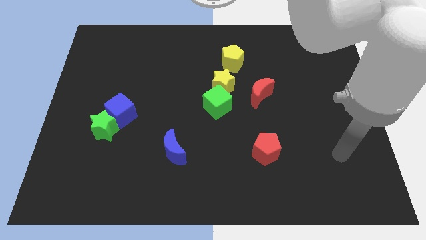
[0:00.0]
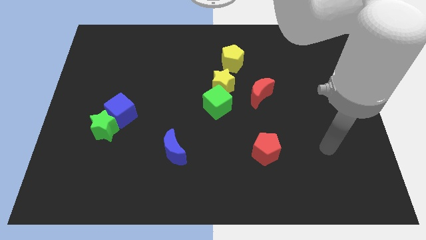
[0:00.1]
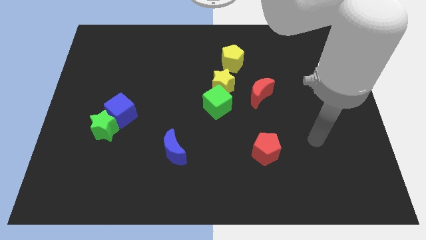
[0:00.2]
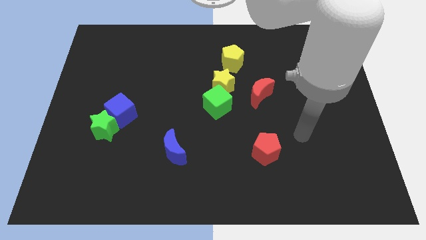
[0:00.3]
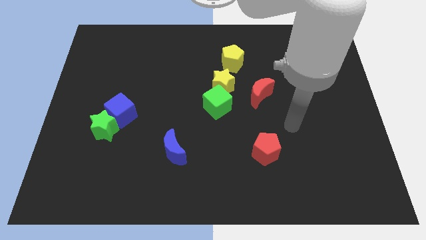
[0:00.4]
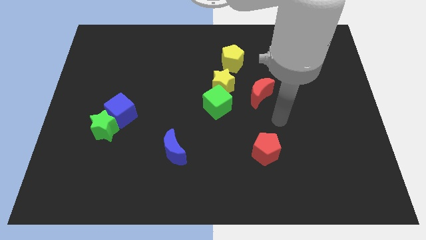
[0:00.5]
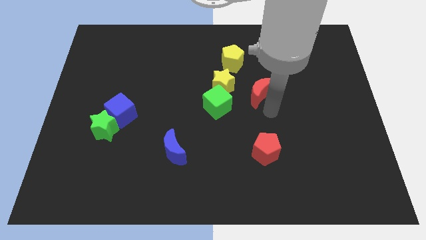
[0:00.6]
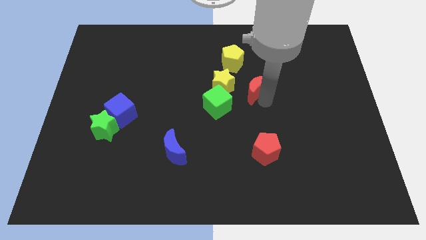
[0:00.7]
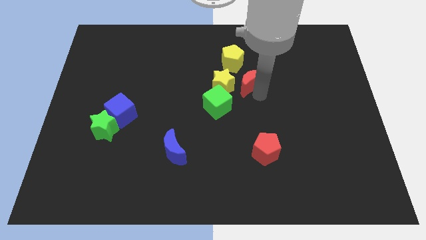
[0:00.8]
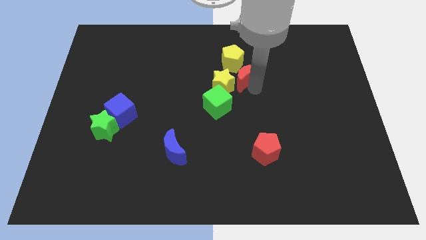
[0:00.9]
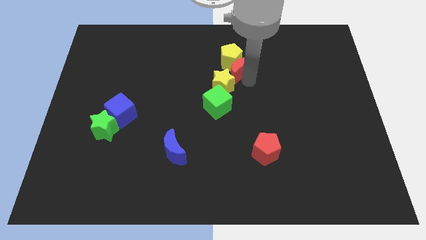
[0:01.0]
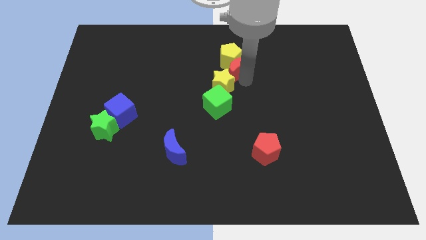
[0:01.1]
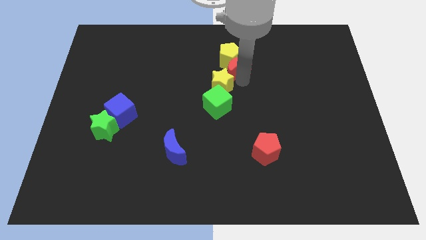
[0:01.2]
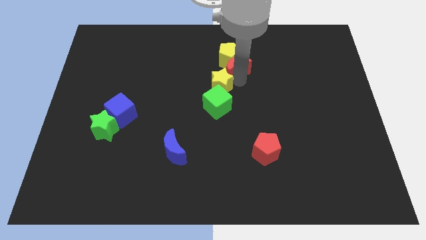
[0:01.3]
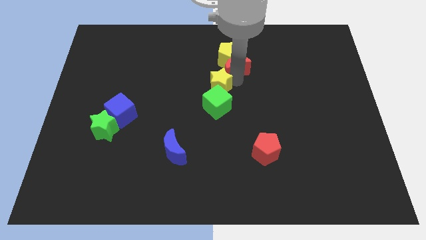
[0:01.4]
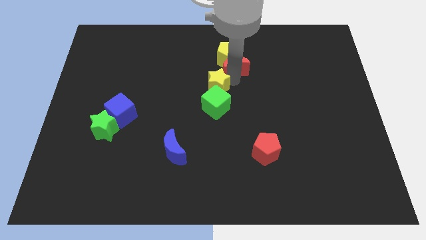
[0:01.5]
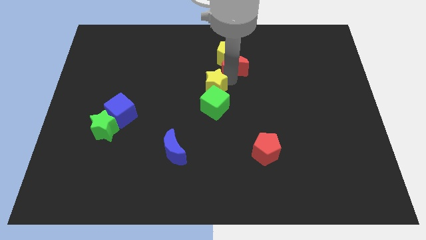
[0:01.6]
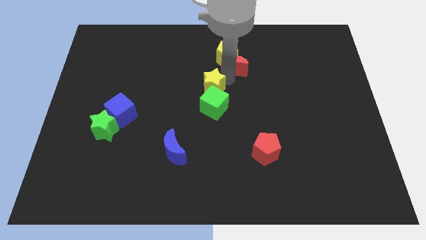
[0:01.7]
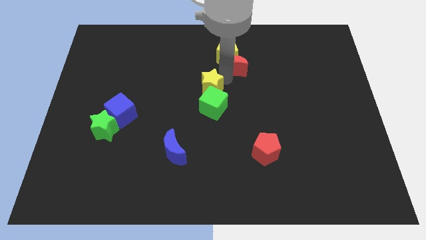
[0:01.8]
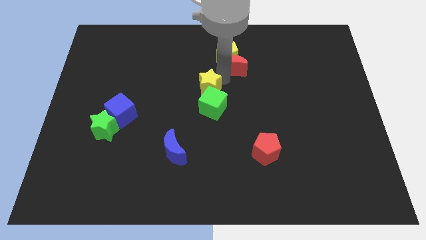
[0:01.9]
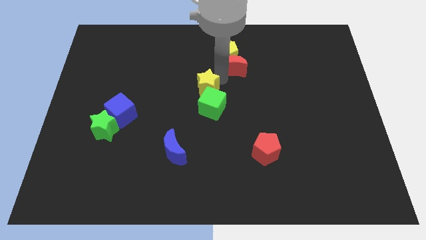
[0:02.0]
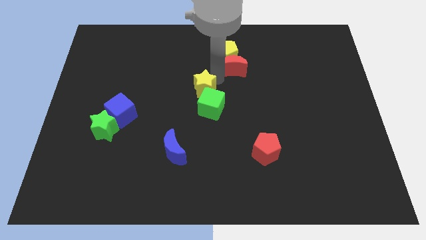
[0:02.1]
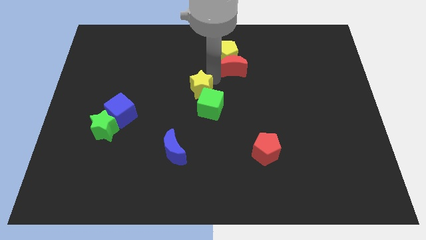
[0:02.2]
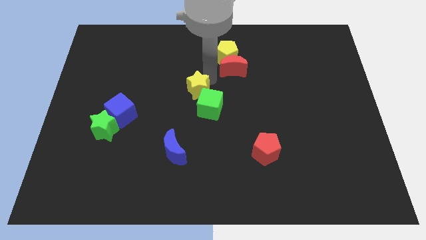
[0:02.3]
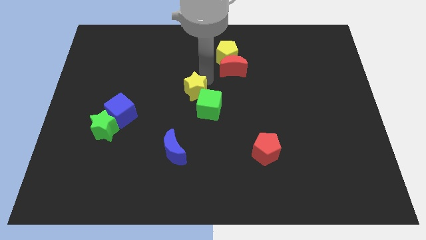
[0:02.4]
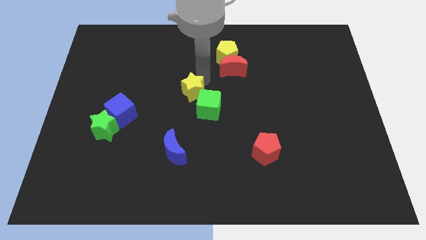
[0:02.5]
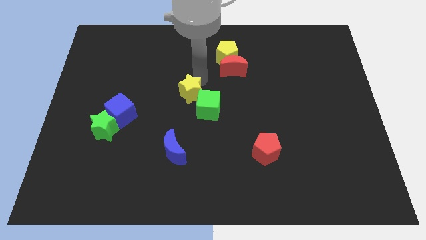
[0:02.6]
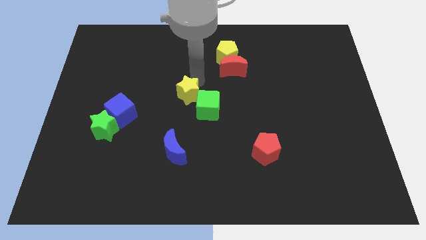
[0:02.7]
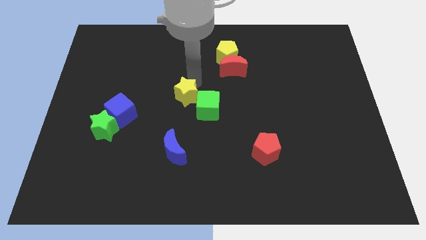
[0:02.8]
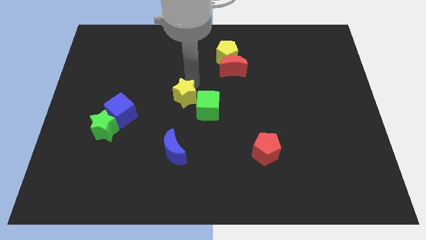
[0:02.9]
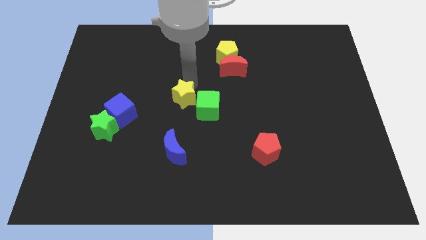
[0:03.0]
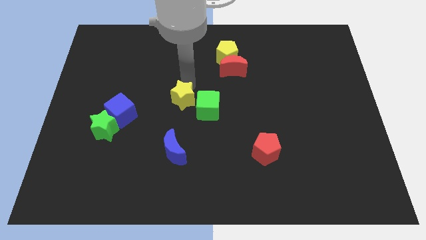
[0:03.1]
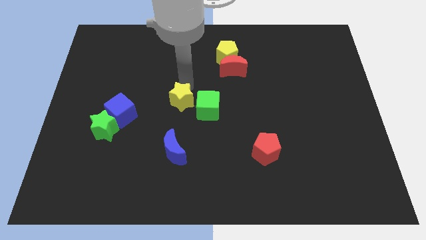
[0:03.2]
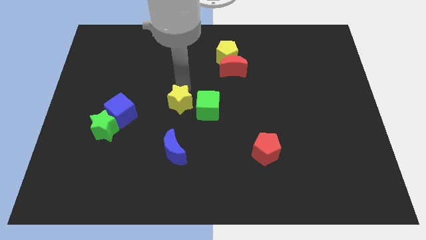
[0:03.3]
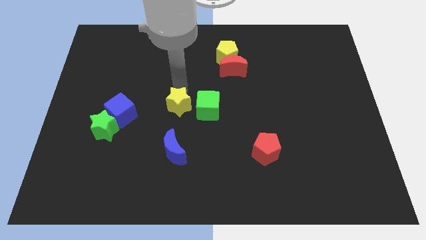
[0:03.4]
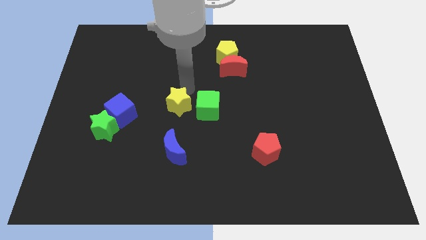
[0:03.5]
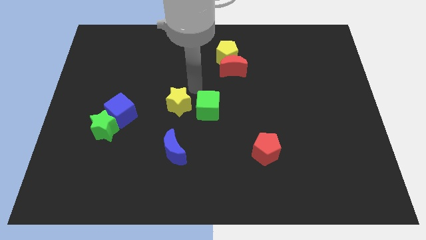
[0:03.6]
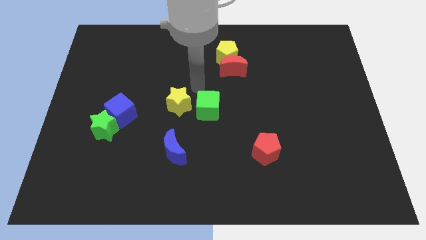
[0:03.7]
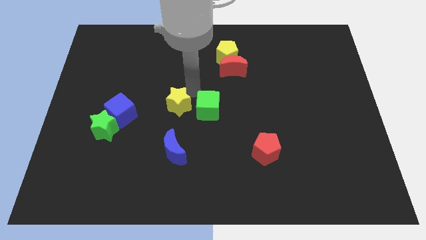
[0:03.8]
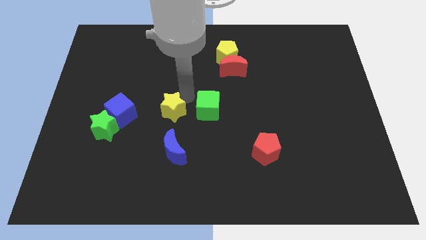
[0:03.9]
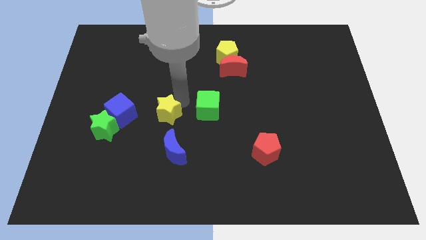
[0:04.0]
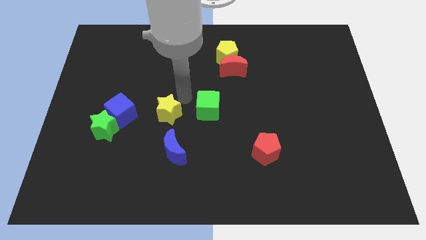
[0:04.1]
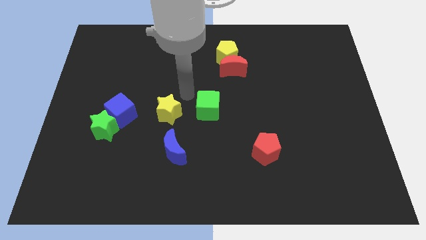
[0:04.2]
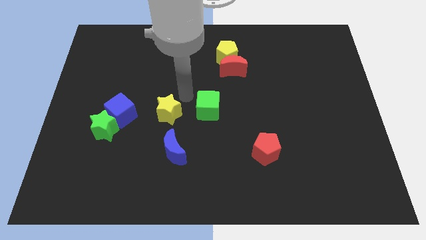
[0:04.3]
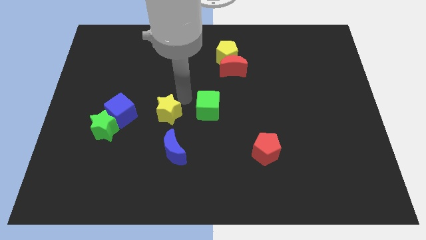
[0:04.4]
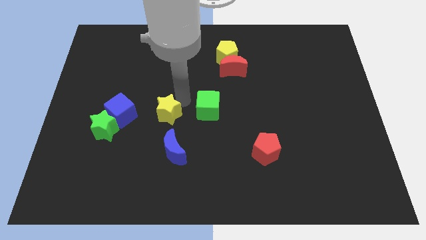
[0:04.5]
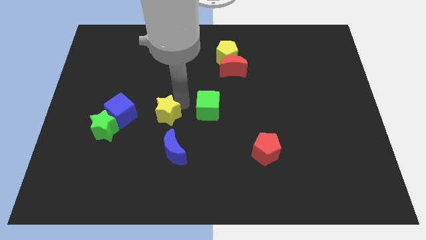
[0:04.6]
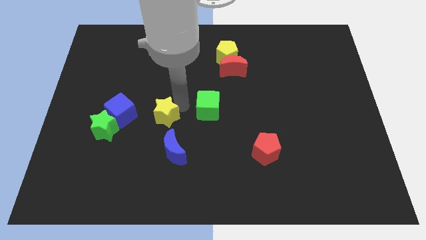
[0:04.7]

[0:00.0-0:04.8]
move the yellow star just right of the green star

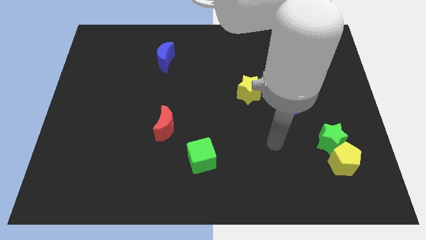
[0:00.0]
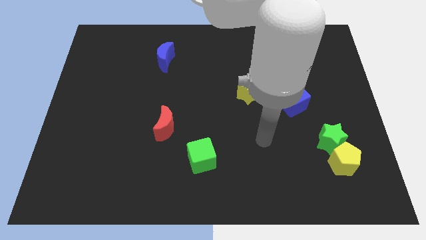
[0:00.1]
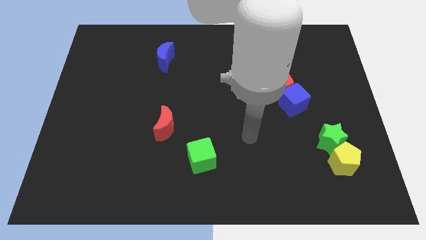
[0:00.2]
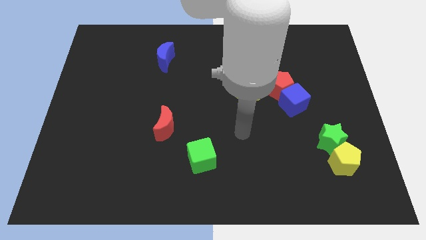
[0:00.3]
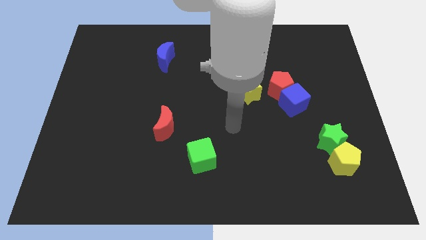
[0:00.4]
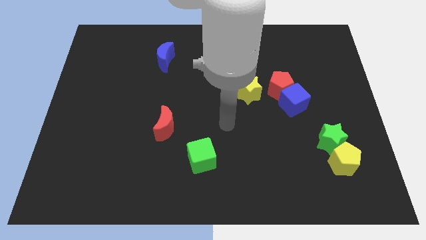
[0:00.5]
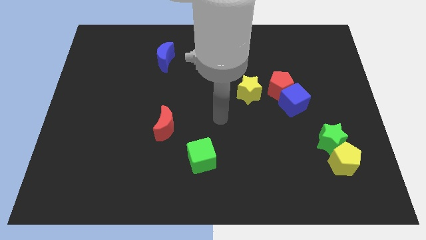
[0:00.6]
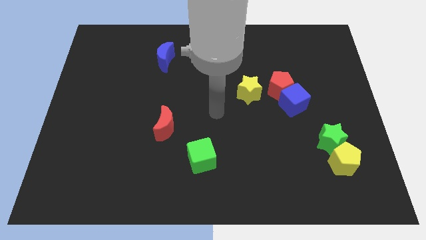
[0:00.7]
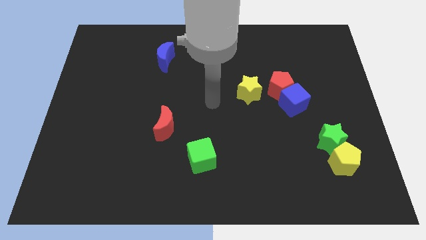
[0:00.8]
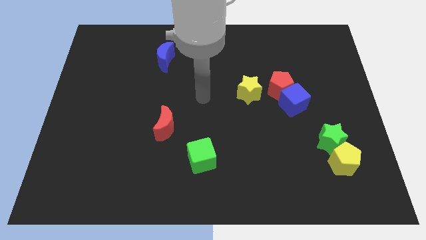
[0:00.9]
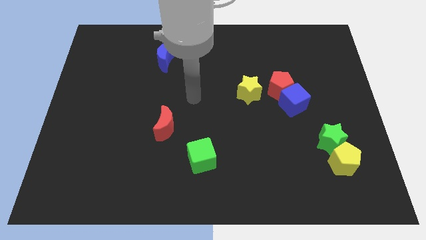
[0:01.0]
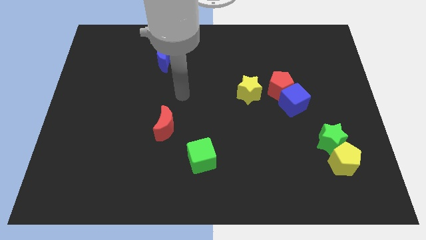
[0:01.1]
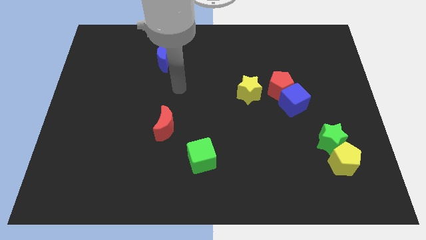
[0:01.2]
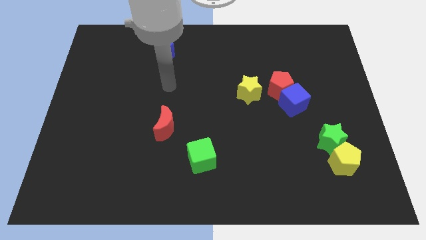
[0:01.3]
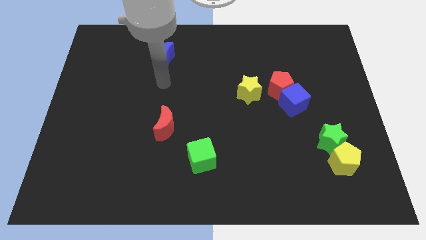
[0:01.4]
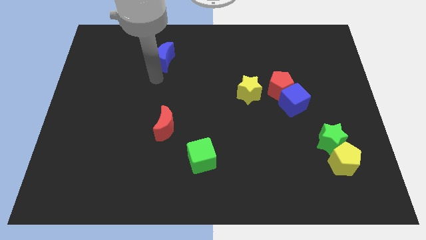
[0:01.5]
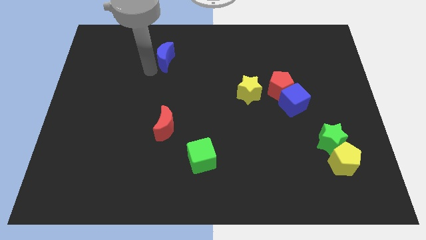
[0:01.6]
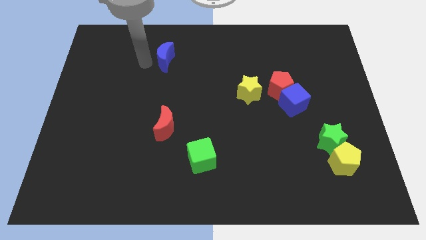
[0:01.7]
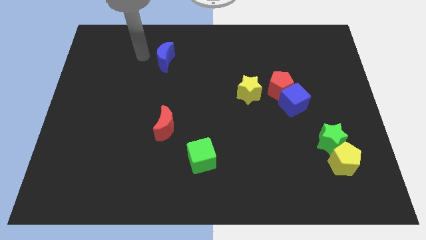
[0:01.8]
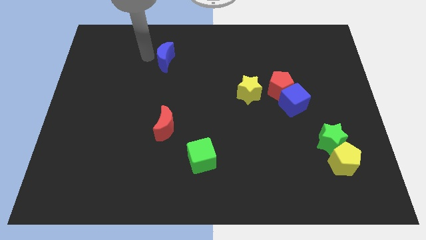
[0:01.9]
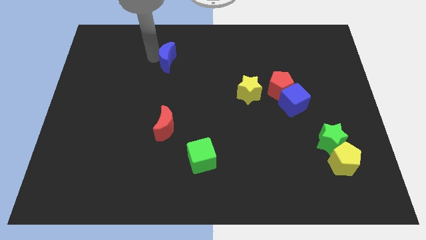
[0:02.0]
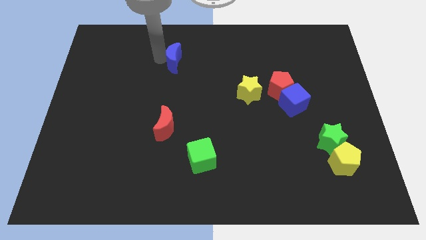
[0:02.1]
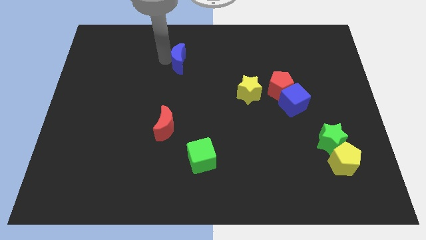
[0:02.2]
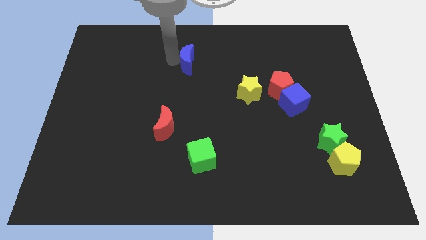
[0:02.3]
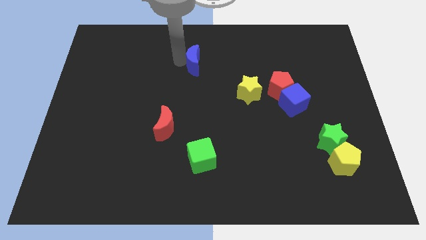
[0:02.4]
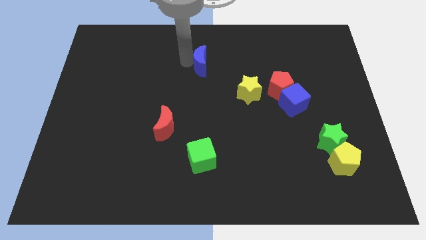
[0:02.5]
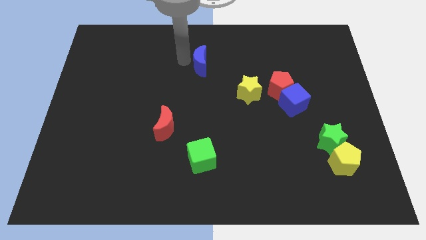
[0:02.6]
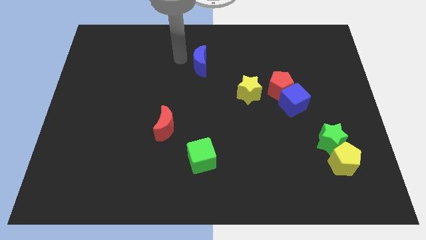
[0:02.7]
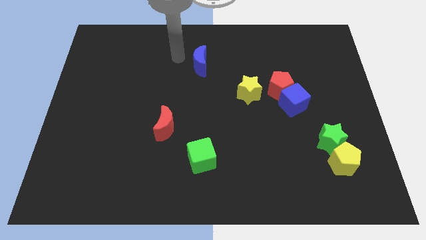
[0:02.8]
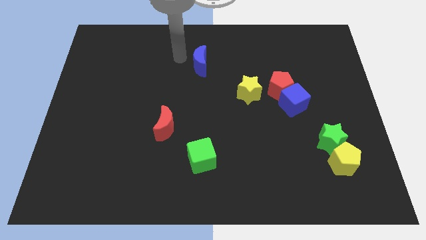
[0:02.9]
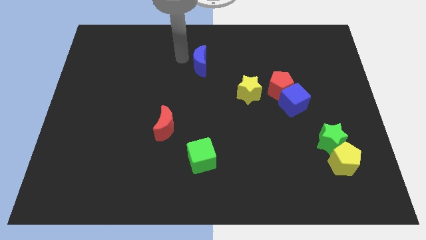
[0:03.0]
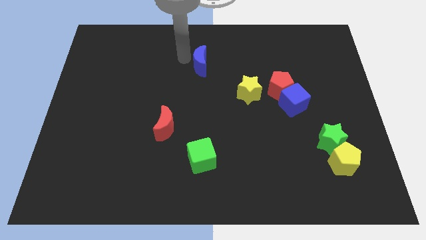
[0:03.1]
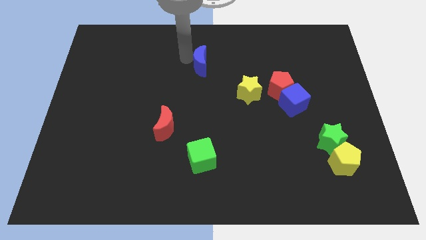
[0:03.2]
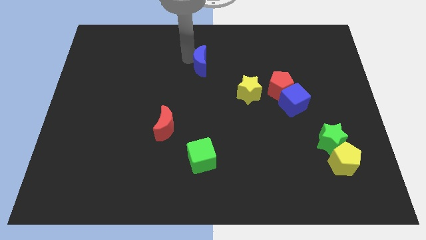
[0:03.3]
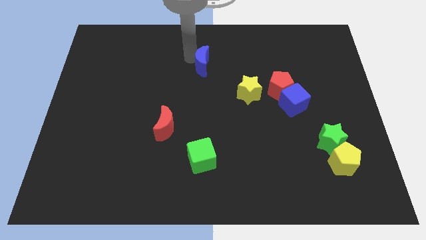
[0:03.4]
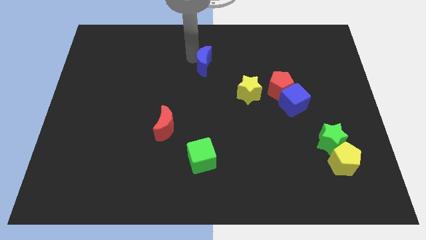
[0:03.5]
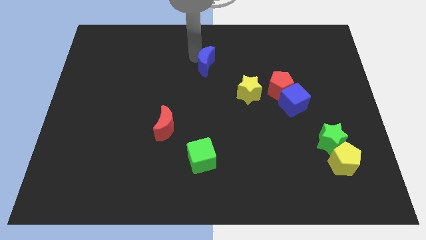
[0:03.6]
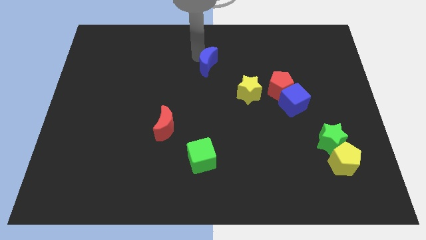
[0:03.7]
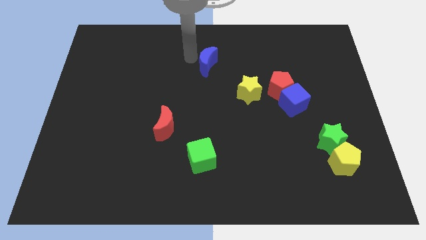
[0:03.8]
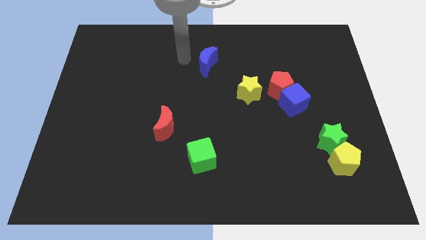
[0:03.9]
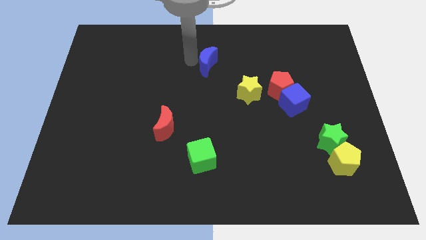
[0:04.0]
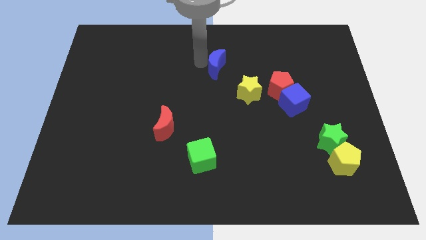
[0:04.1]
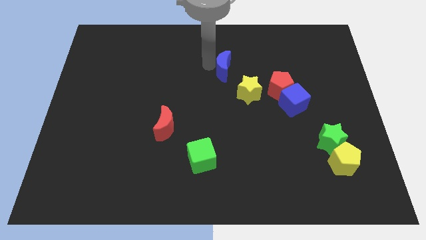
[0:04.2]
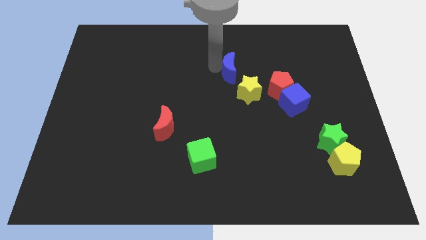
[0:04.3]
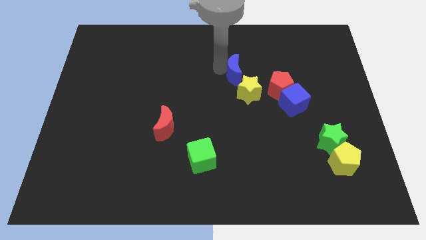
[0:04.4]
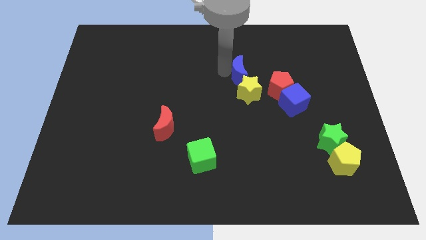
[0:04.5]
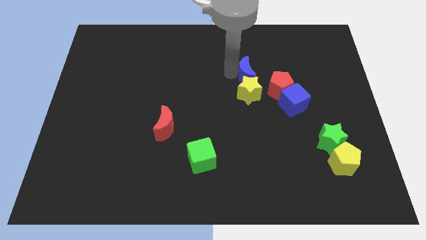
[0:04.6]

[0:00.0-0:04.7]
slide the blue moon to the top right of the yellow star
